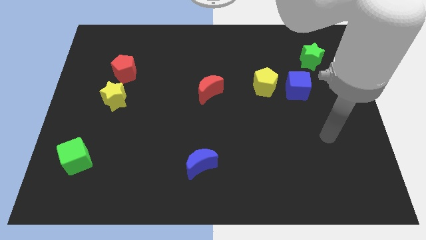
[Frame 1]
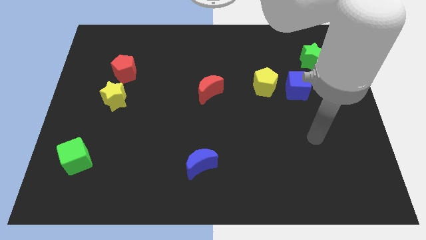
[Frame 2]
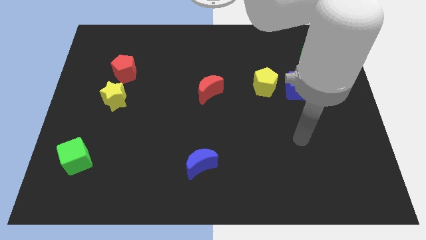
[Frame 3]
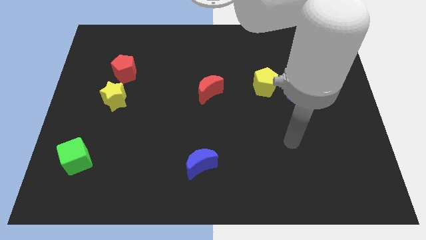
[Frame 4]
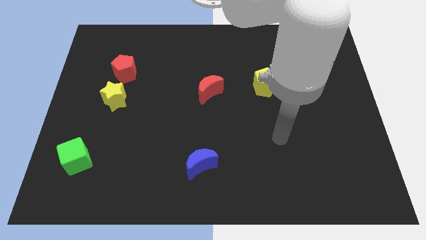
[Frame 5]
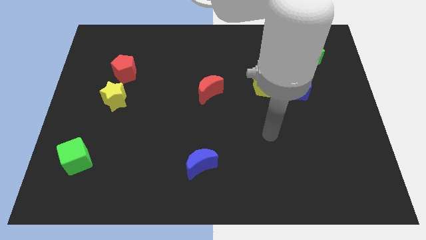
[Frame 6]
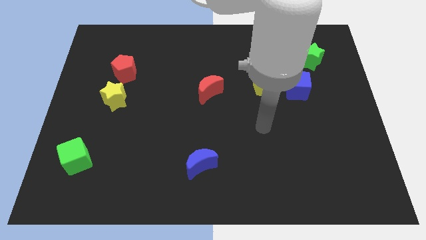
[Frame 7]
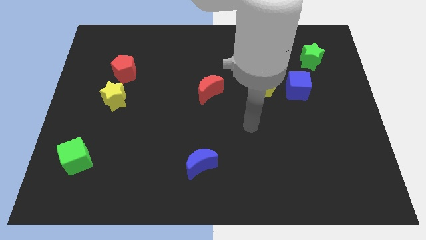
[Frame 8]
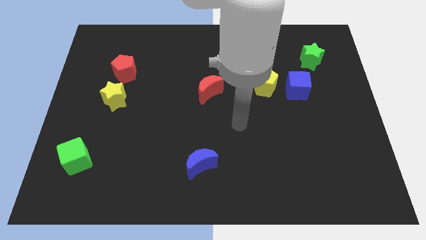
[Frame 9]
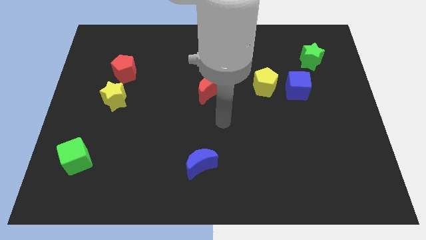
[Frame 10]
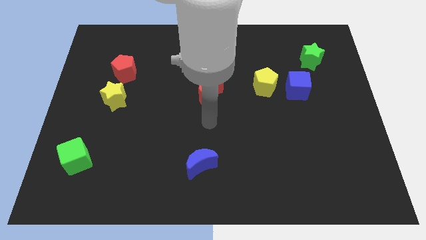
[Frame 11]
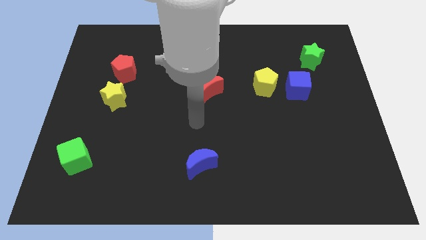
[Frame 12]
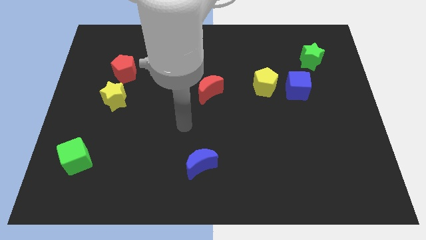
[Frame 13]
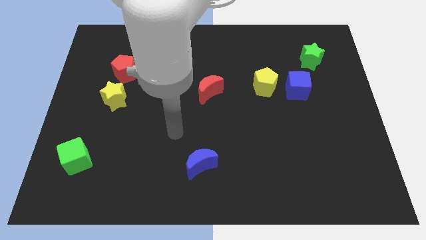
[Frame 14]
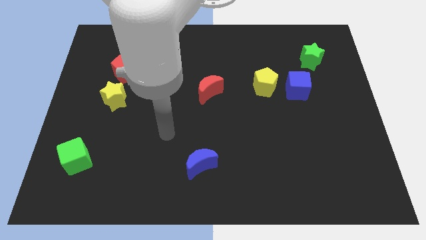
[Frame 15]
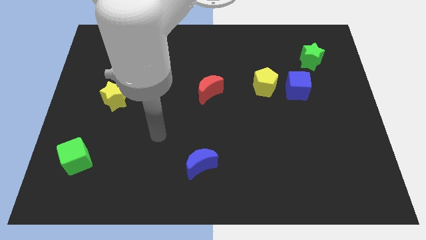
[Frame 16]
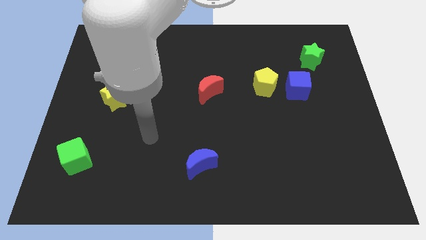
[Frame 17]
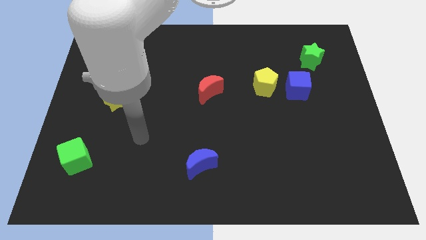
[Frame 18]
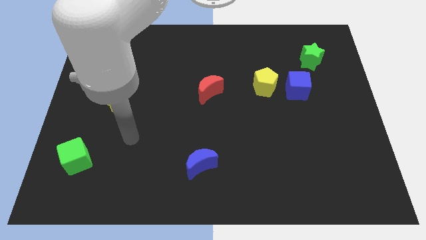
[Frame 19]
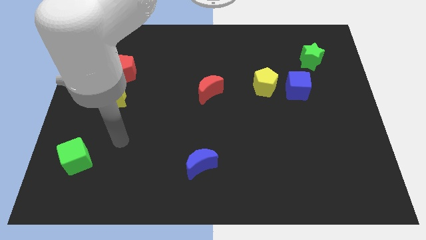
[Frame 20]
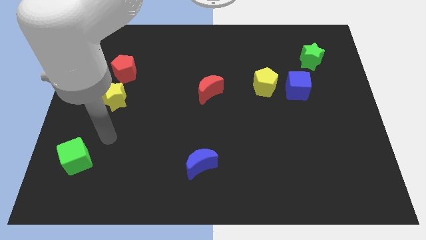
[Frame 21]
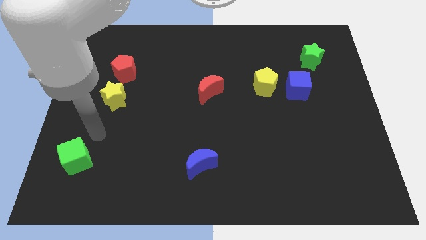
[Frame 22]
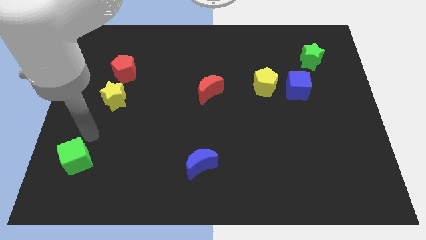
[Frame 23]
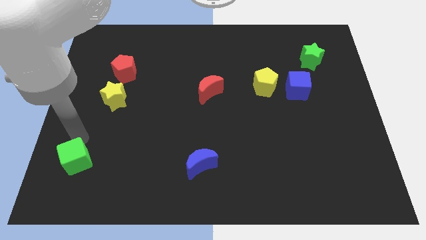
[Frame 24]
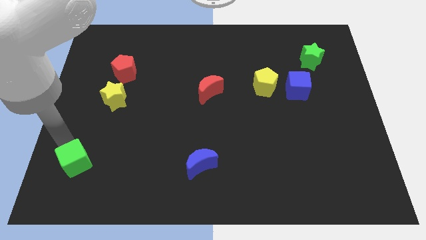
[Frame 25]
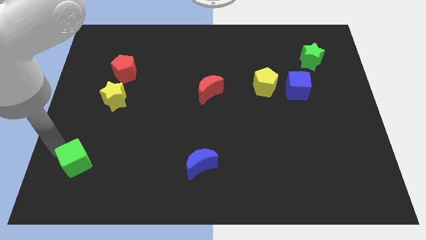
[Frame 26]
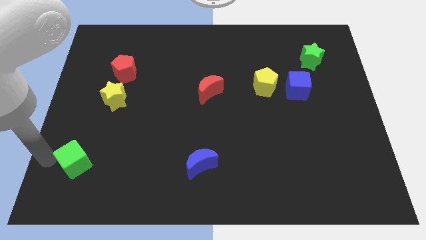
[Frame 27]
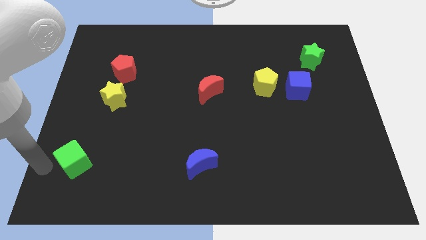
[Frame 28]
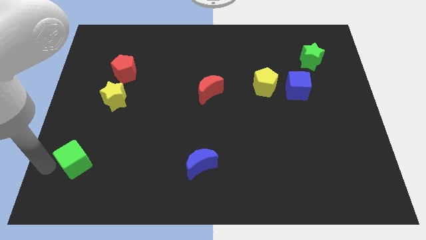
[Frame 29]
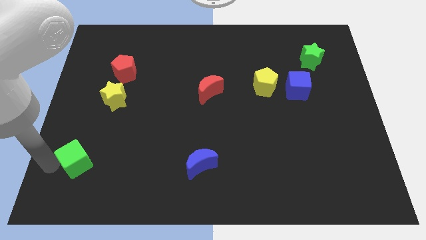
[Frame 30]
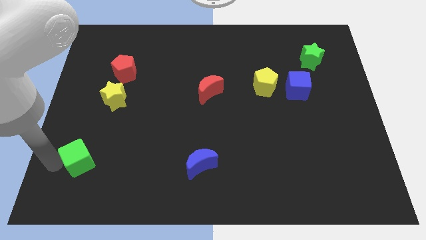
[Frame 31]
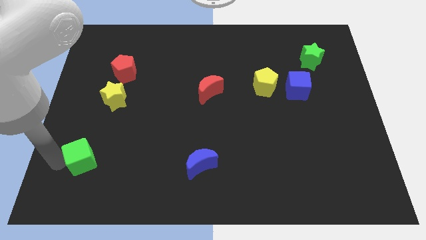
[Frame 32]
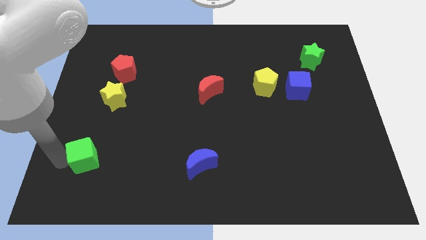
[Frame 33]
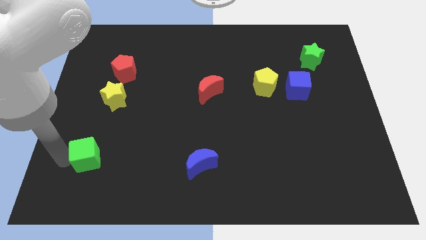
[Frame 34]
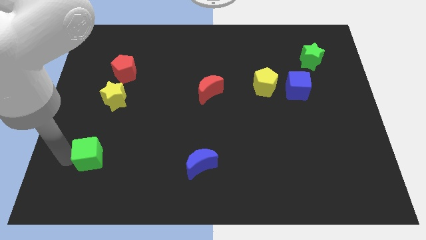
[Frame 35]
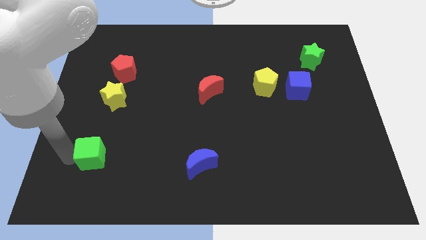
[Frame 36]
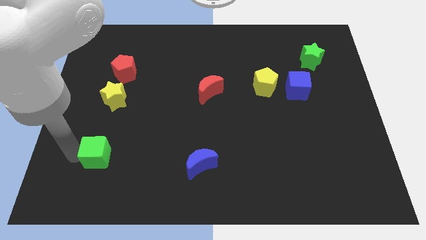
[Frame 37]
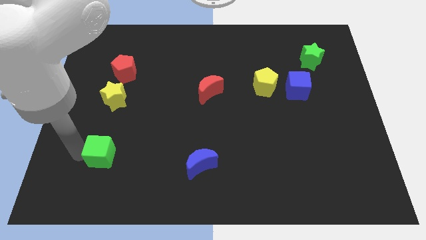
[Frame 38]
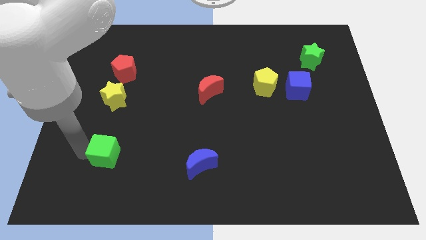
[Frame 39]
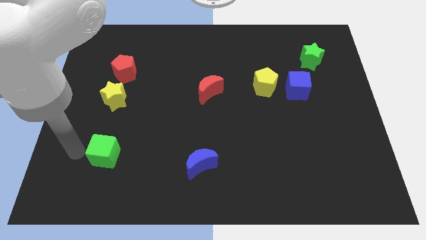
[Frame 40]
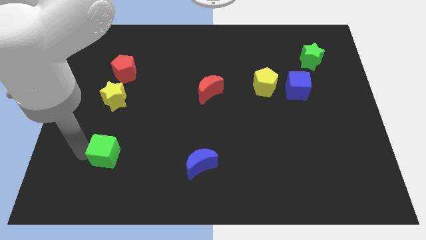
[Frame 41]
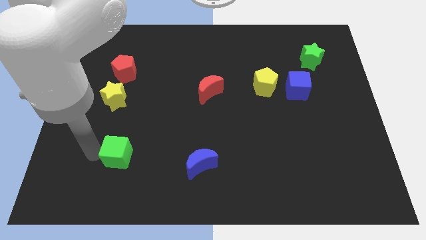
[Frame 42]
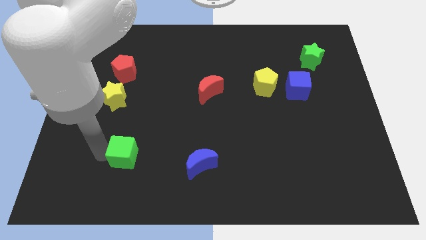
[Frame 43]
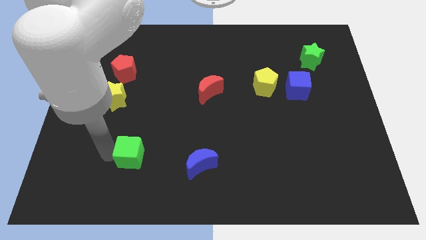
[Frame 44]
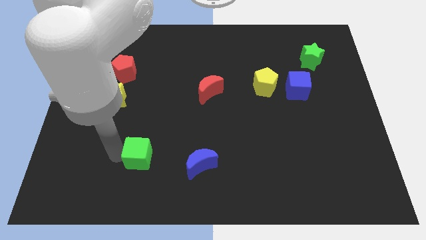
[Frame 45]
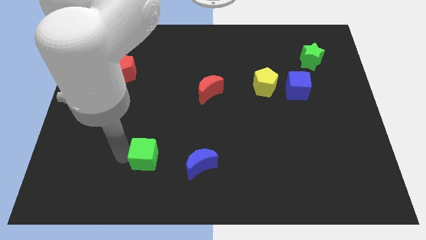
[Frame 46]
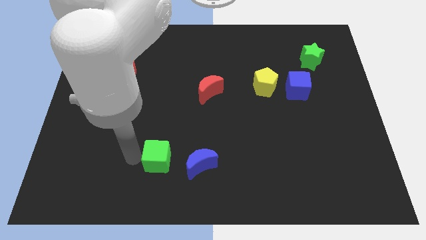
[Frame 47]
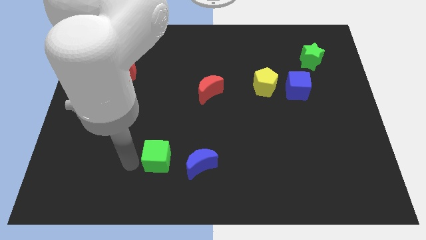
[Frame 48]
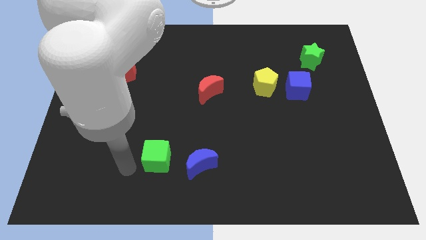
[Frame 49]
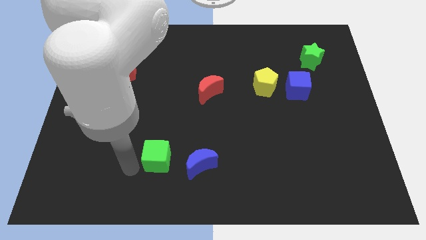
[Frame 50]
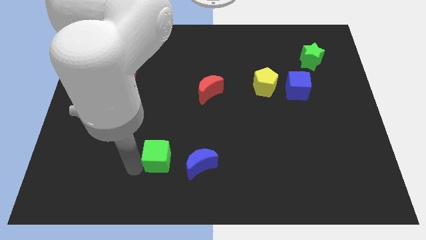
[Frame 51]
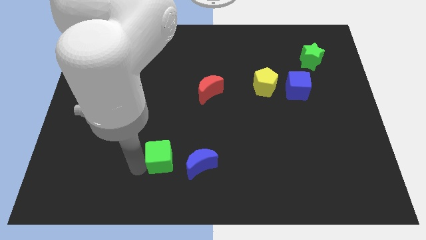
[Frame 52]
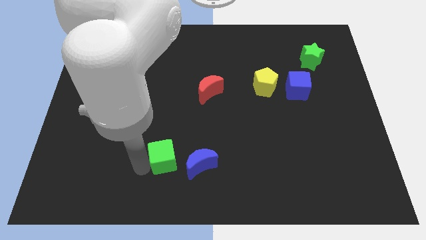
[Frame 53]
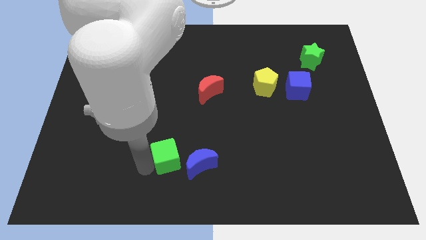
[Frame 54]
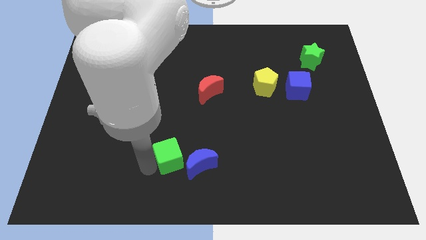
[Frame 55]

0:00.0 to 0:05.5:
move the green cube to the right

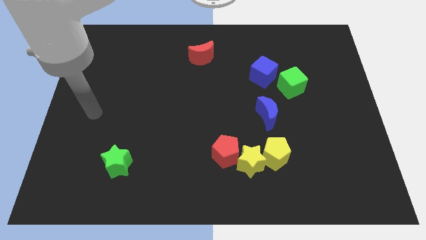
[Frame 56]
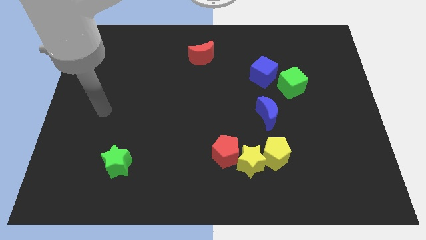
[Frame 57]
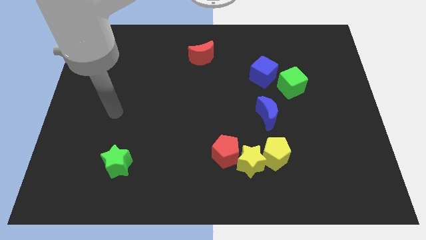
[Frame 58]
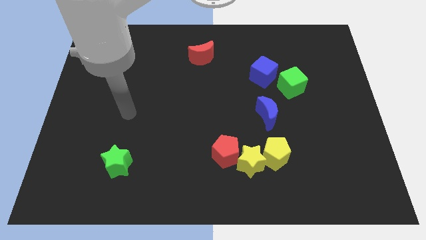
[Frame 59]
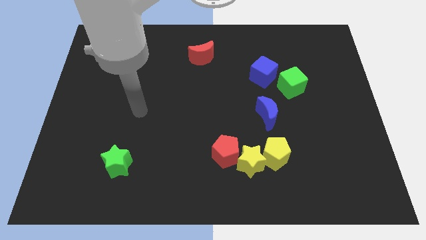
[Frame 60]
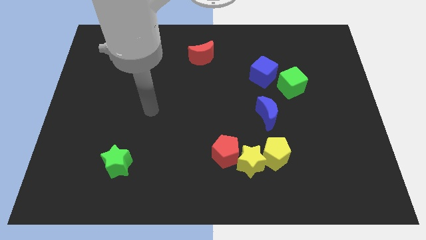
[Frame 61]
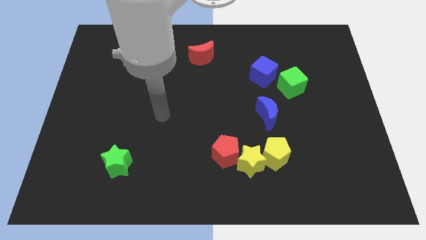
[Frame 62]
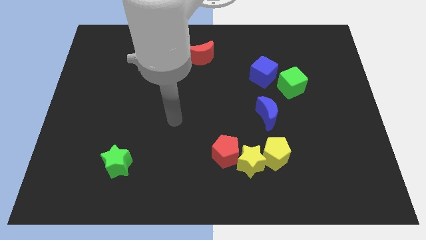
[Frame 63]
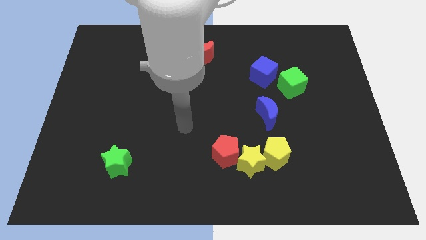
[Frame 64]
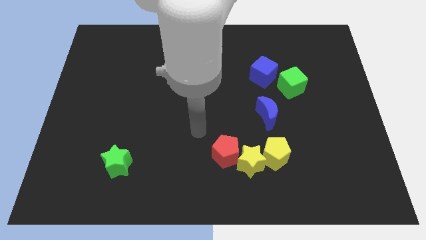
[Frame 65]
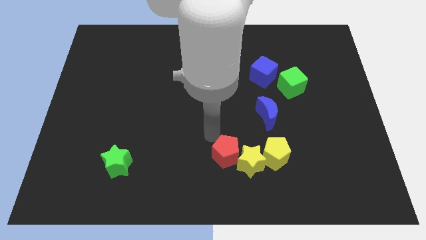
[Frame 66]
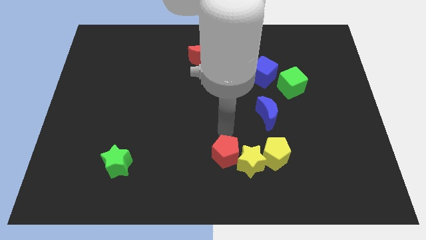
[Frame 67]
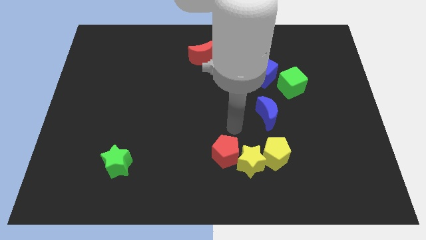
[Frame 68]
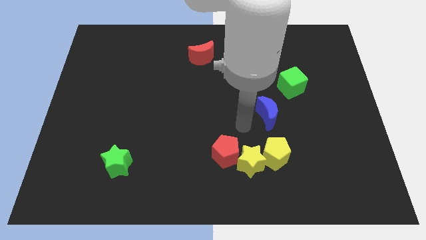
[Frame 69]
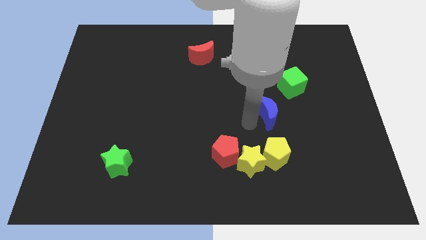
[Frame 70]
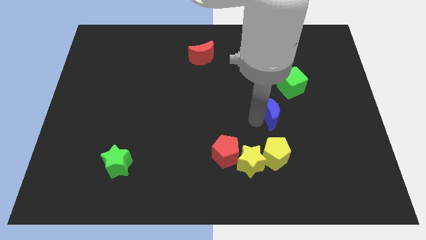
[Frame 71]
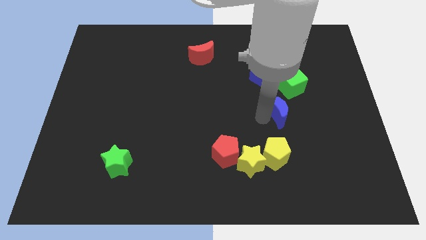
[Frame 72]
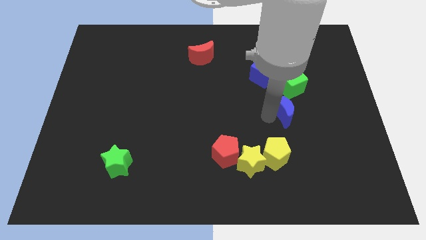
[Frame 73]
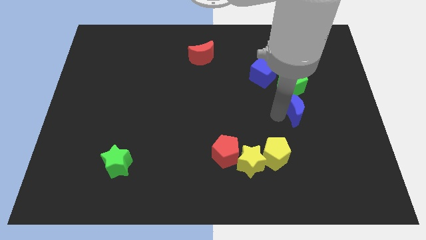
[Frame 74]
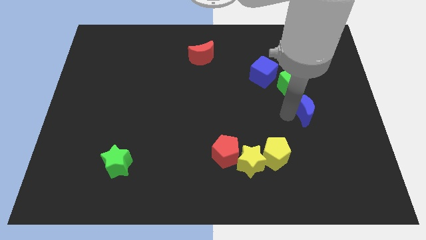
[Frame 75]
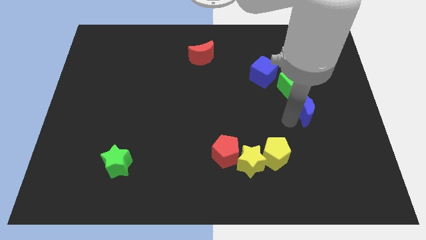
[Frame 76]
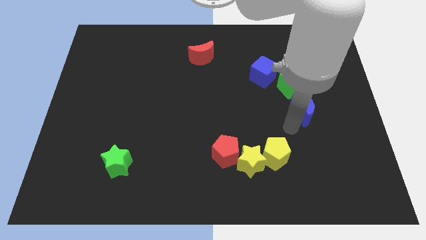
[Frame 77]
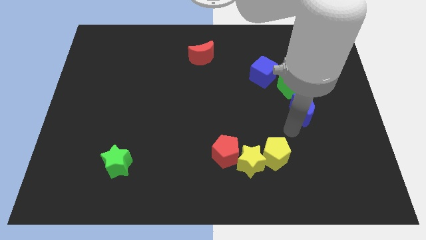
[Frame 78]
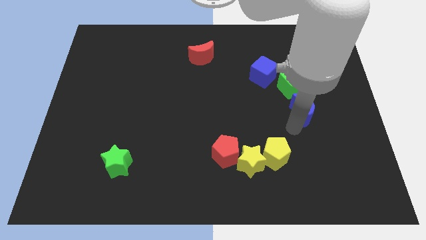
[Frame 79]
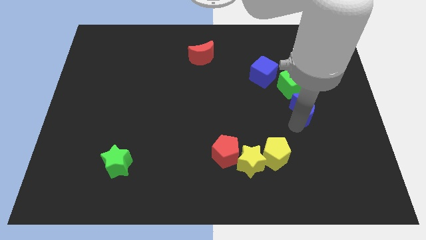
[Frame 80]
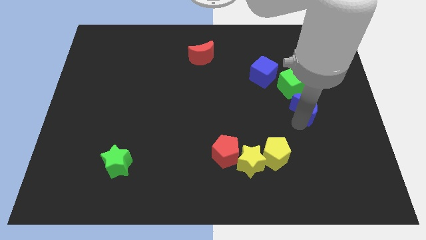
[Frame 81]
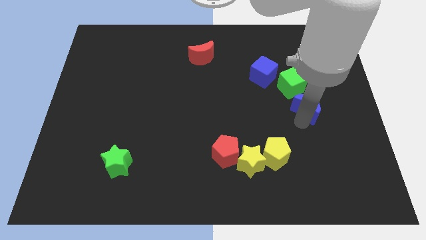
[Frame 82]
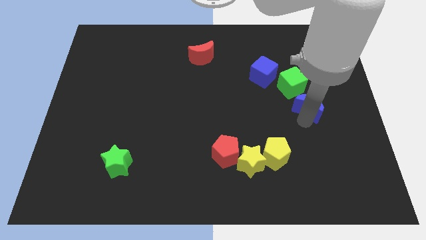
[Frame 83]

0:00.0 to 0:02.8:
move the blue moon a little up and then right
